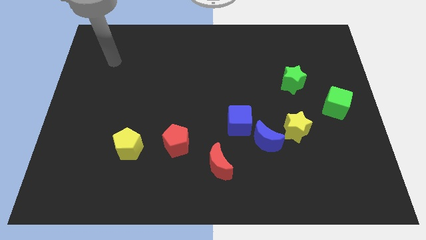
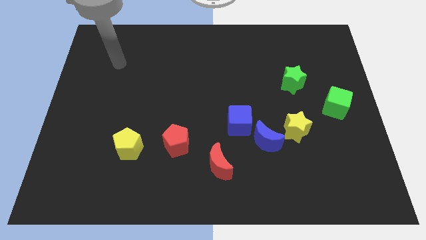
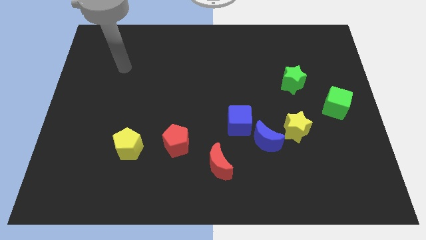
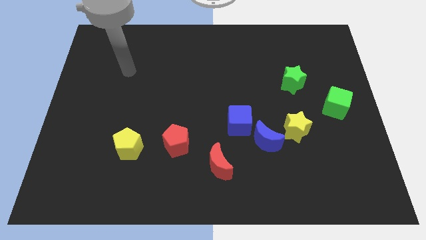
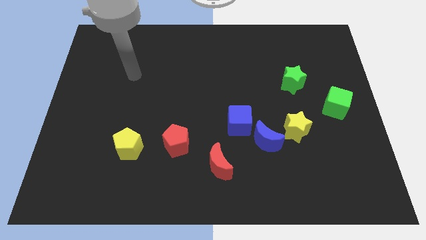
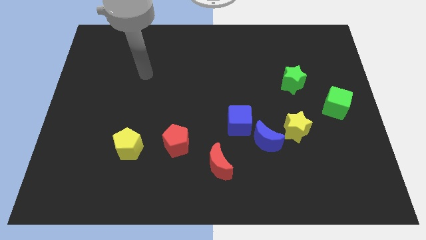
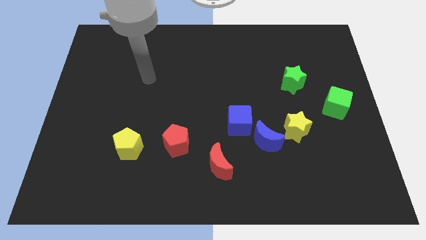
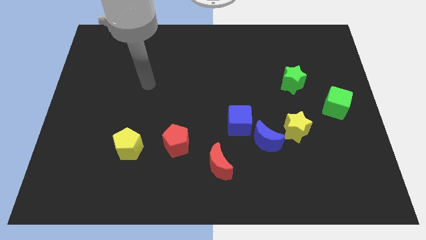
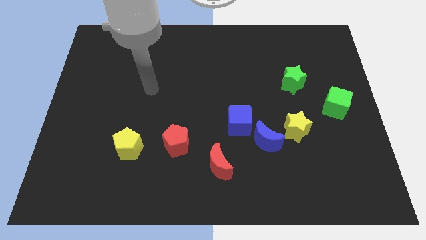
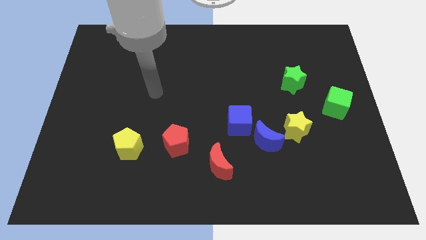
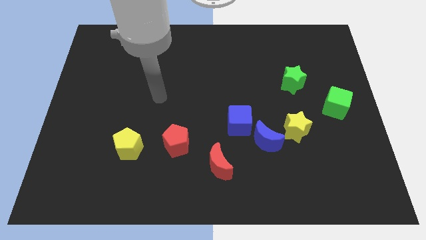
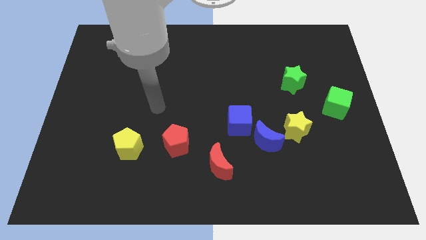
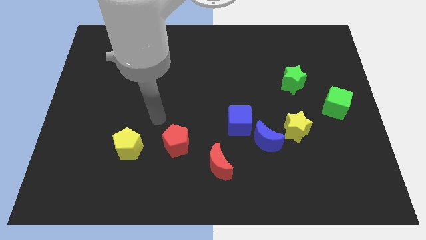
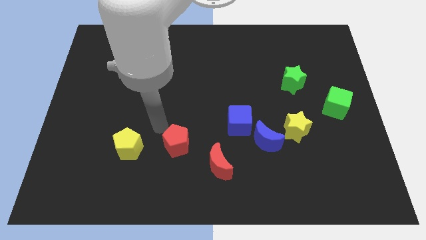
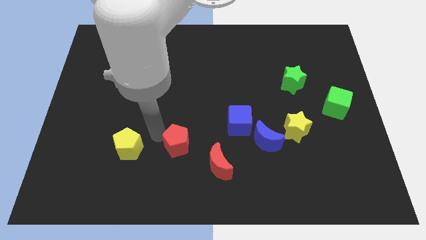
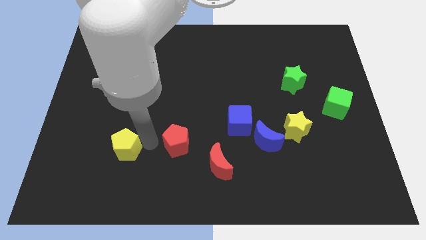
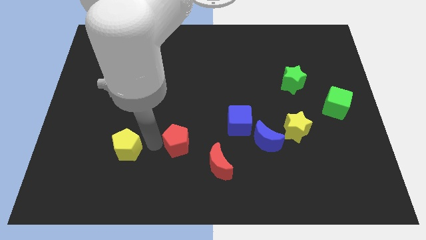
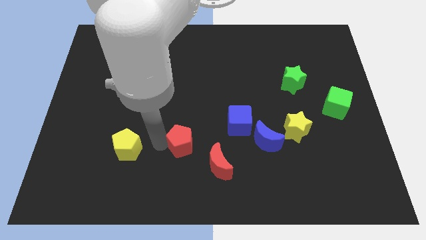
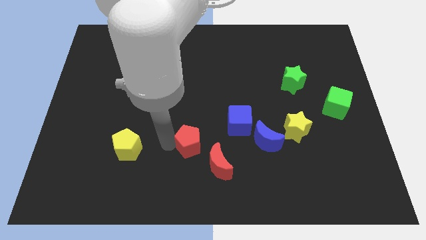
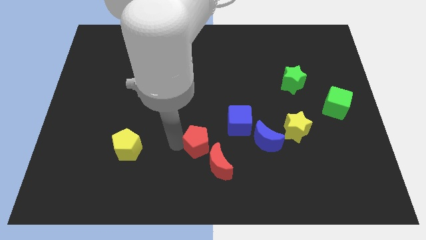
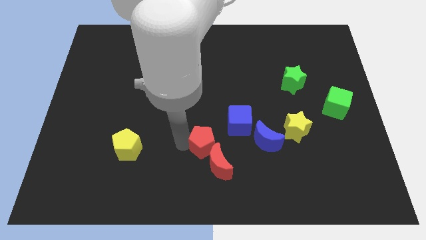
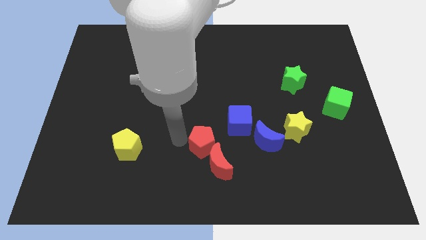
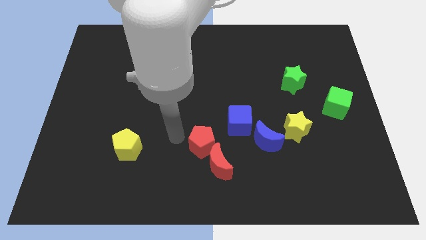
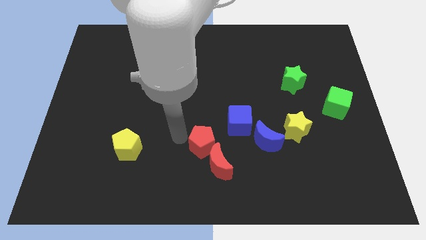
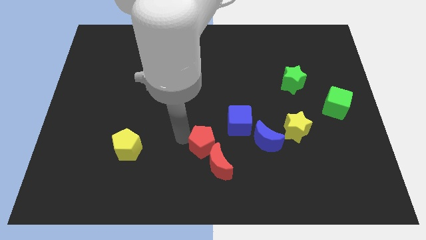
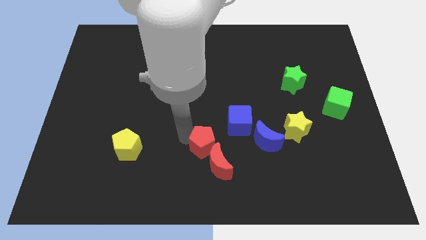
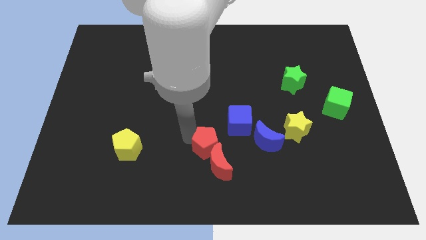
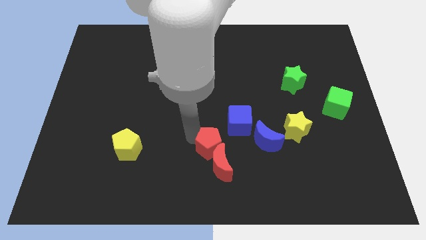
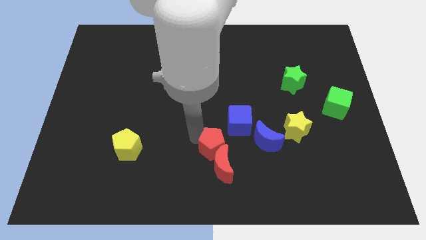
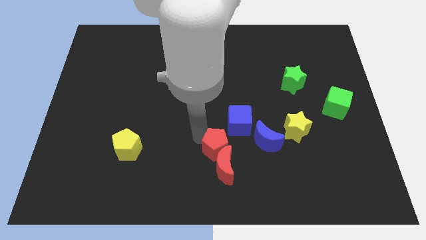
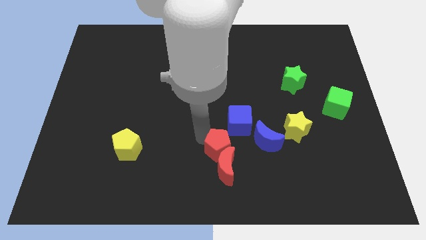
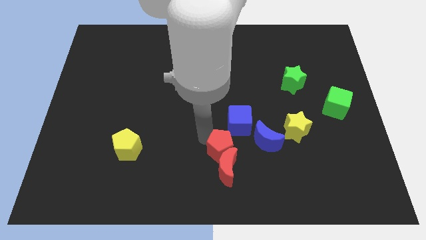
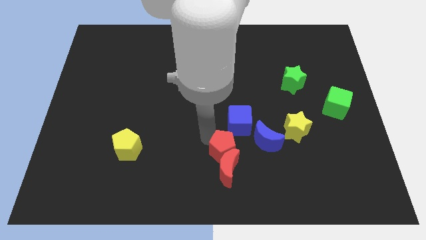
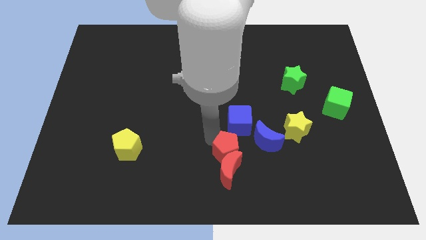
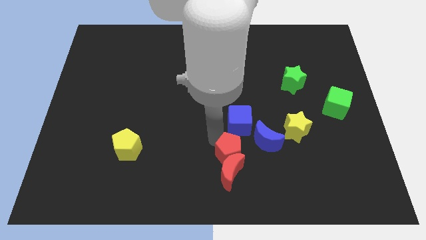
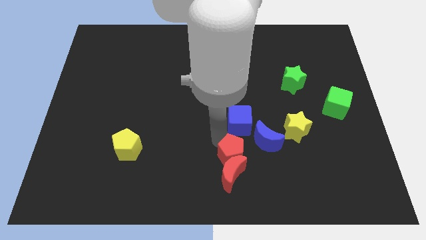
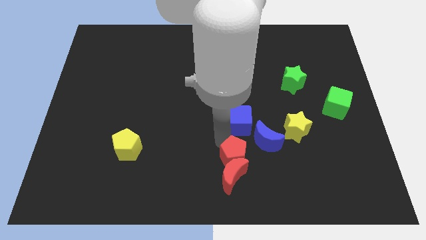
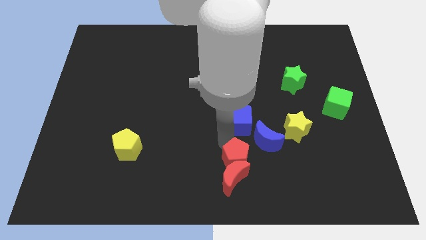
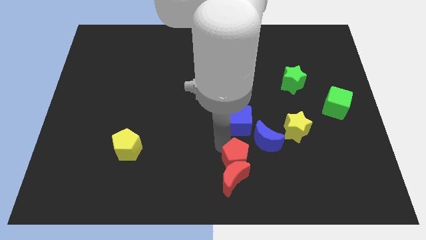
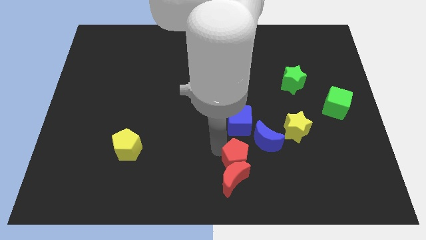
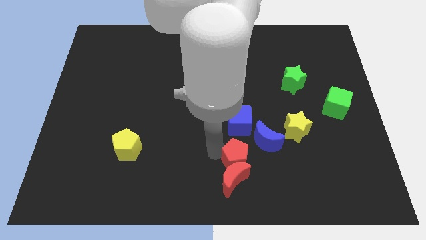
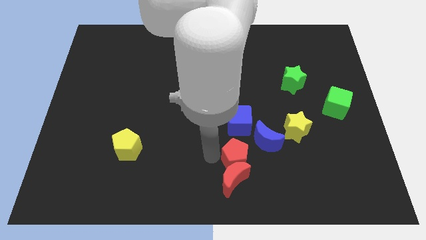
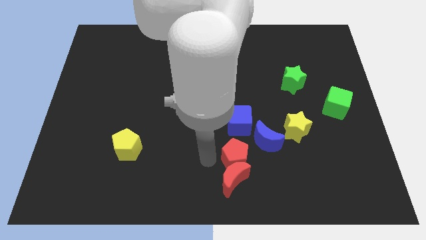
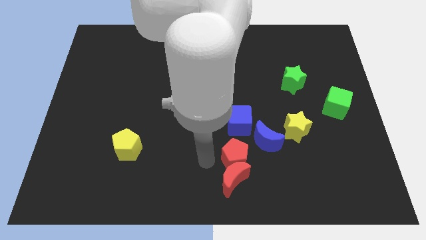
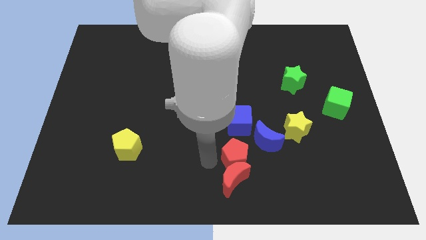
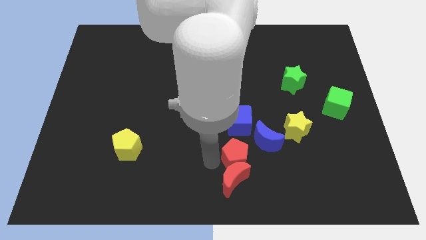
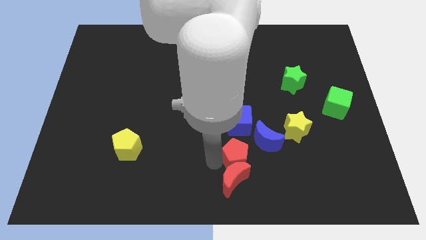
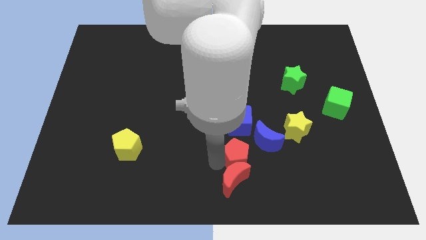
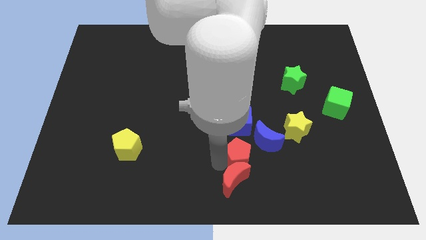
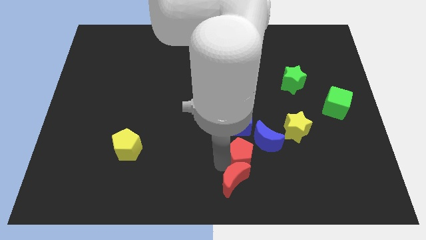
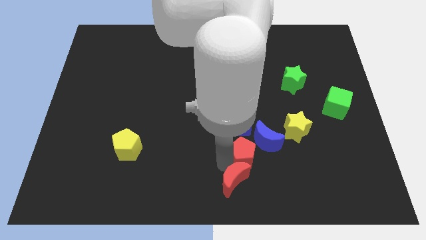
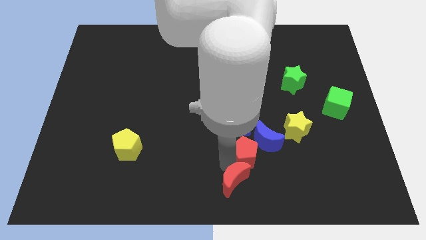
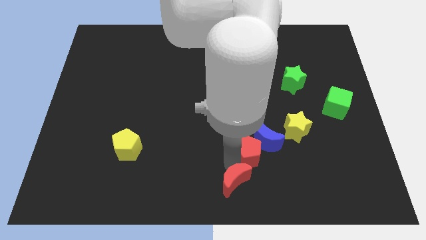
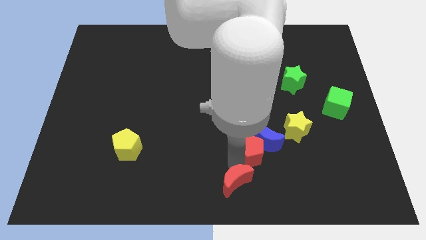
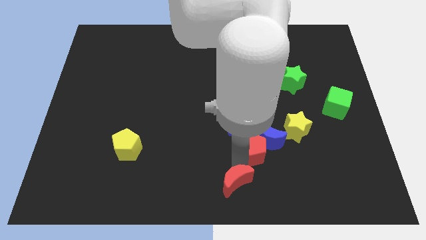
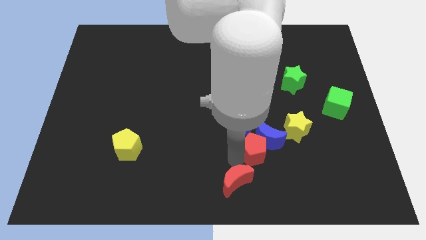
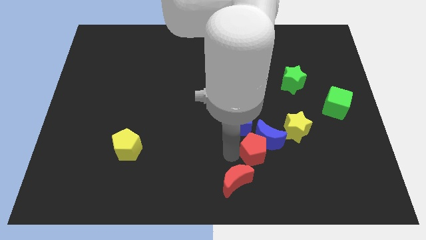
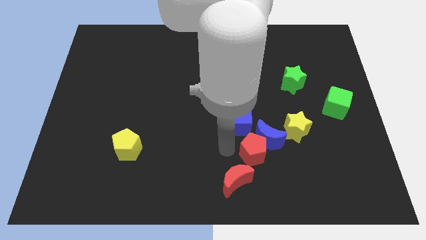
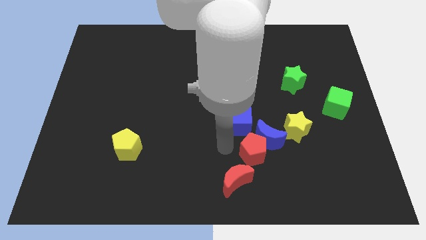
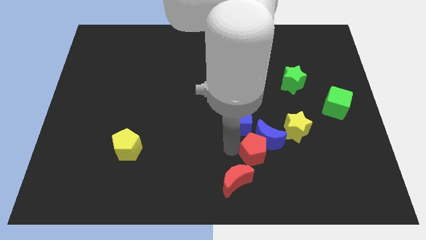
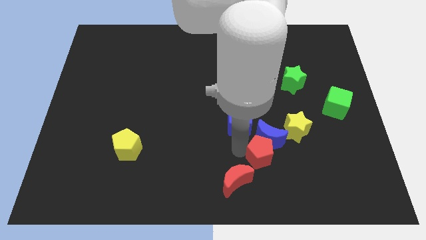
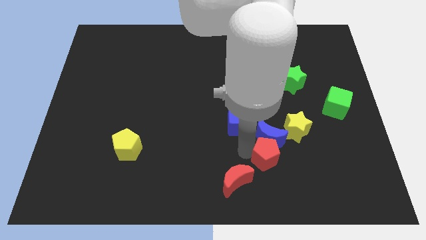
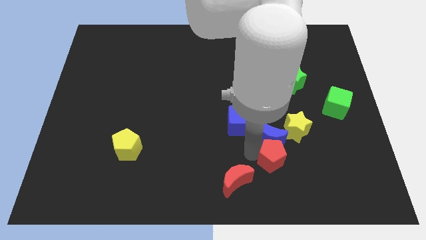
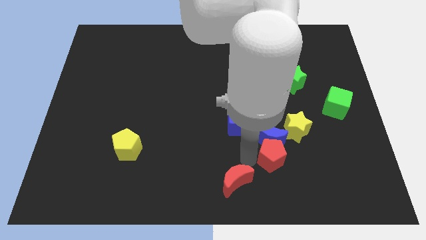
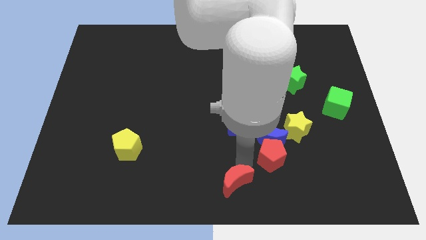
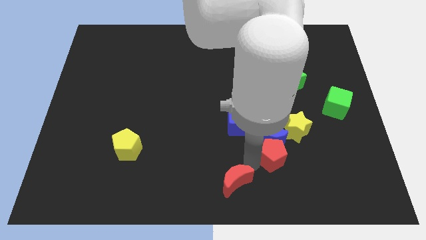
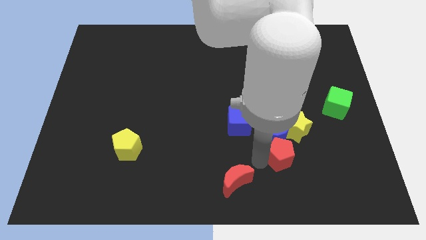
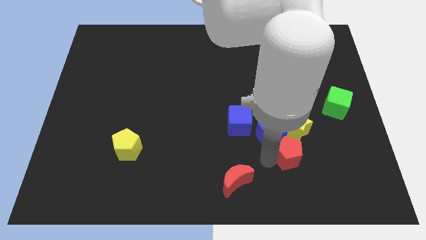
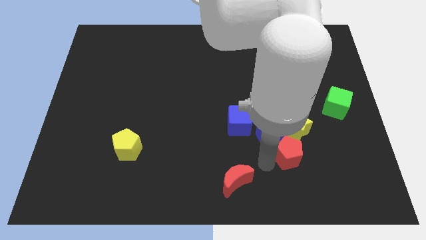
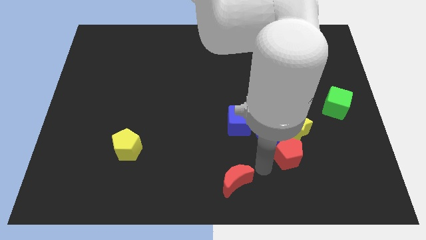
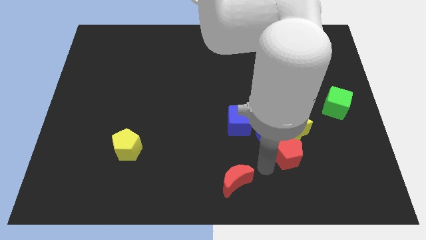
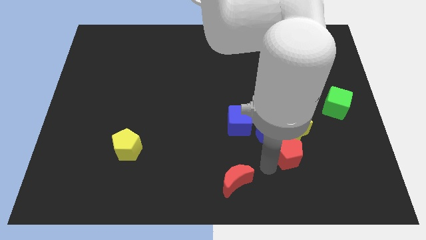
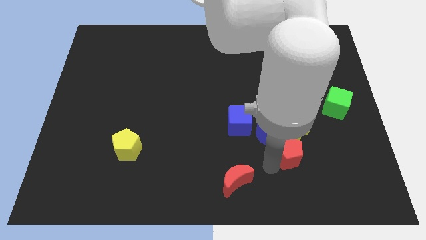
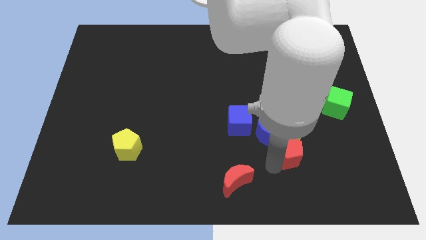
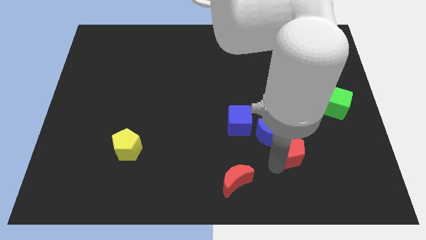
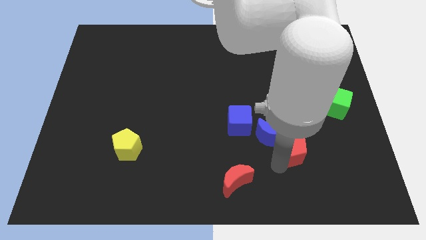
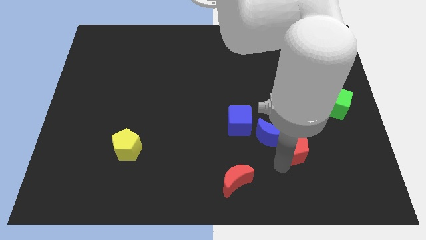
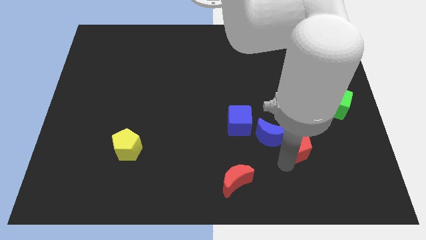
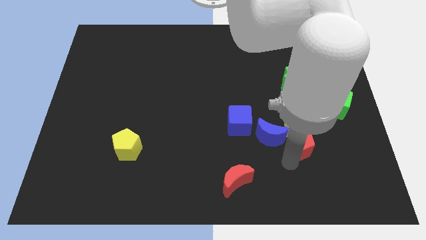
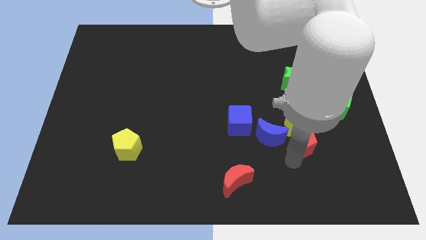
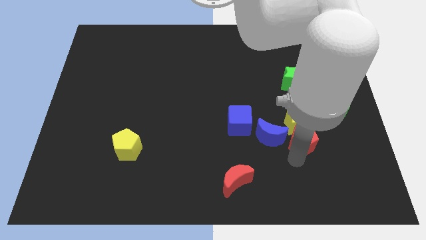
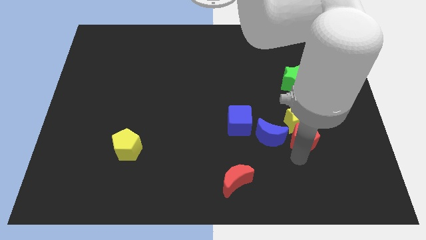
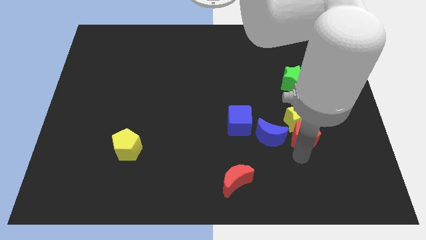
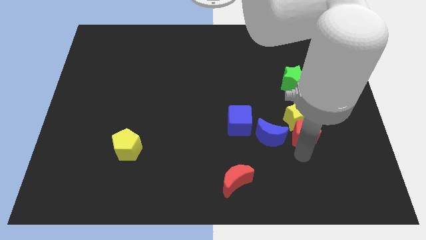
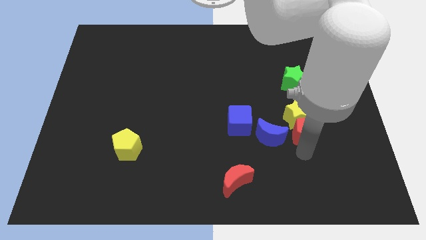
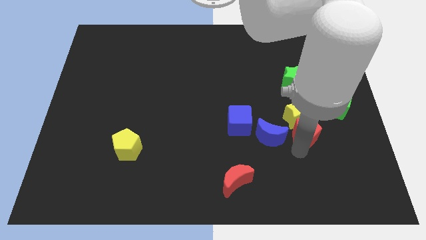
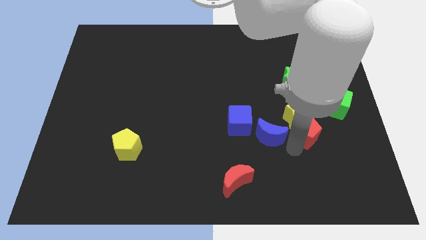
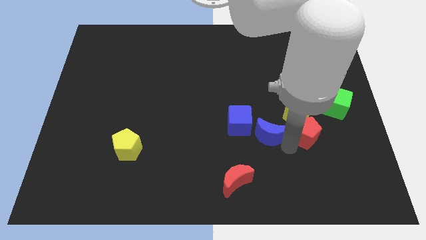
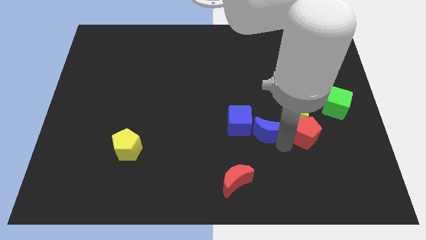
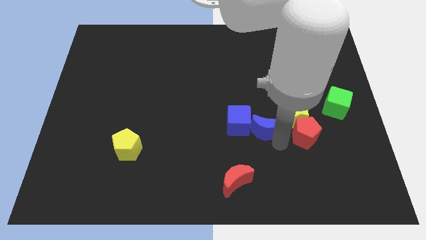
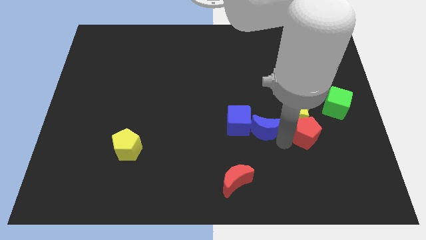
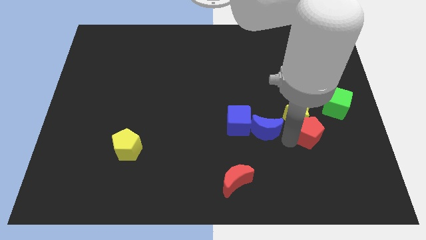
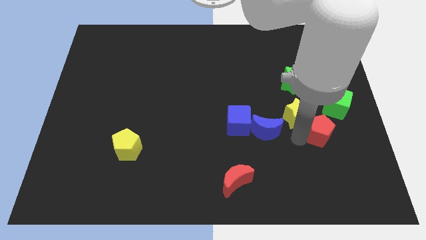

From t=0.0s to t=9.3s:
move the red pentagon just right of the yellow star
